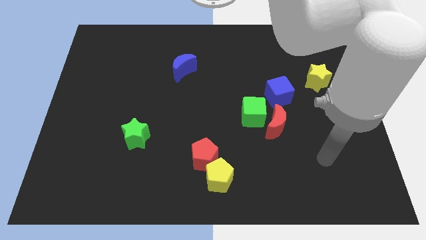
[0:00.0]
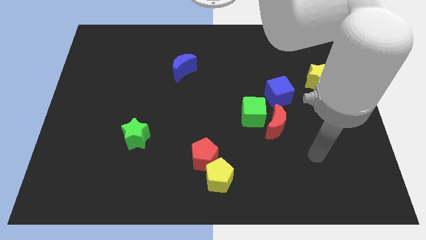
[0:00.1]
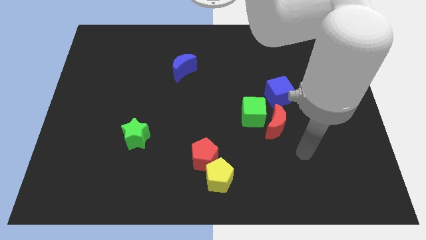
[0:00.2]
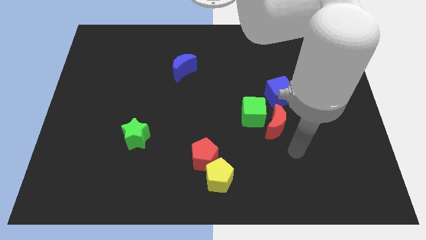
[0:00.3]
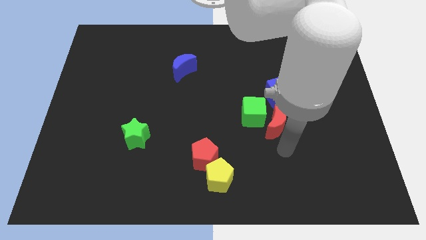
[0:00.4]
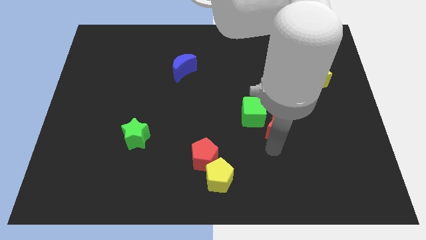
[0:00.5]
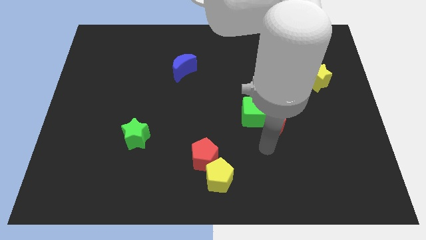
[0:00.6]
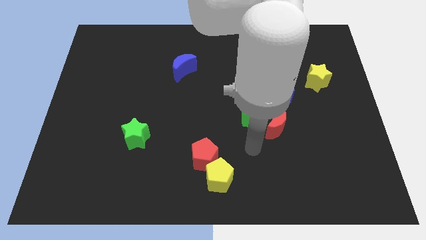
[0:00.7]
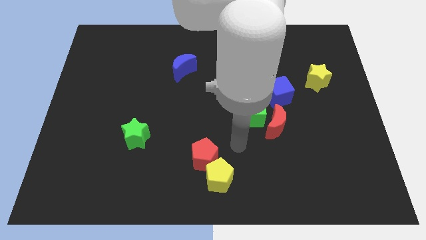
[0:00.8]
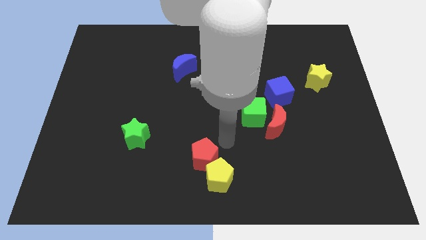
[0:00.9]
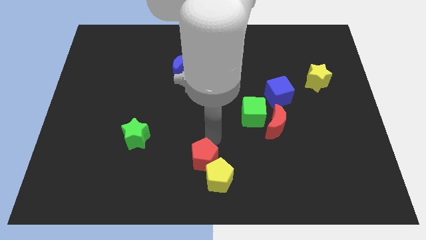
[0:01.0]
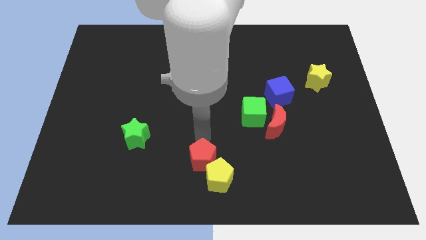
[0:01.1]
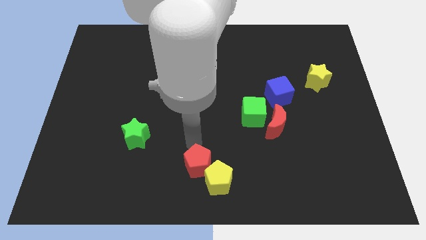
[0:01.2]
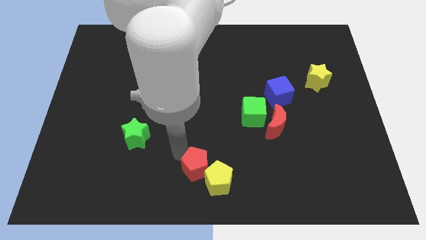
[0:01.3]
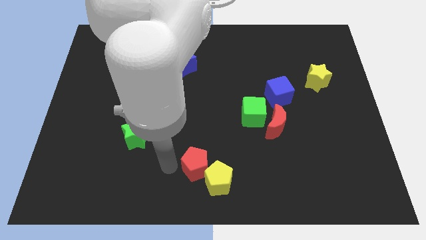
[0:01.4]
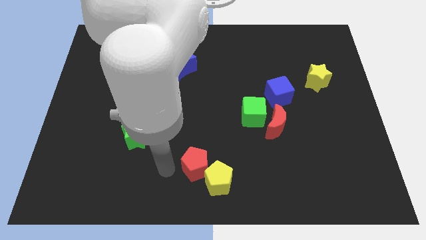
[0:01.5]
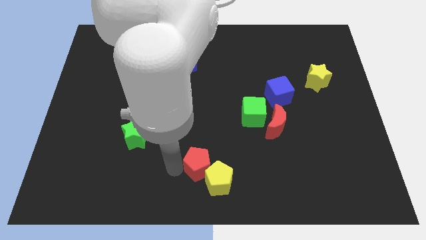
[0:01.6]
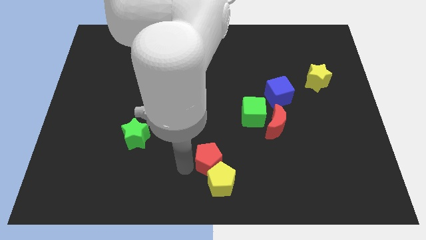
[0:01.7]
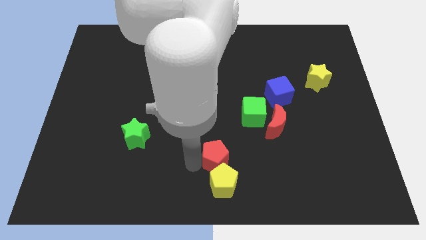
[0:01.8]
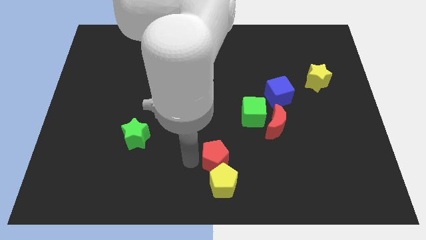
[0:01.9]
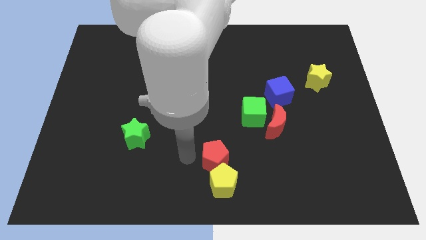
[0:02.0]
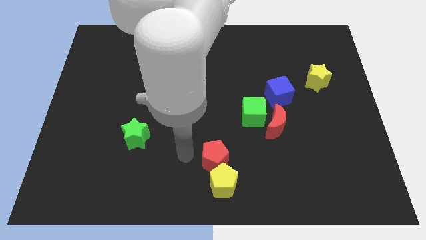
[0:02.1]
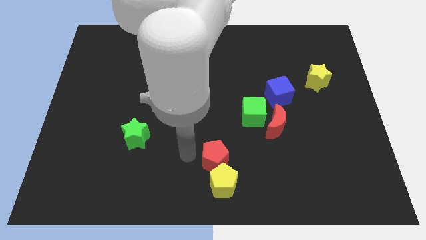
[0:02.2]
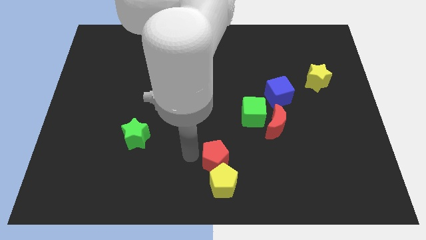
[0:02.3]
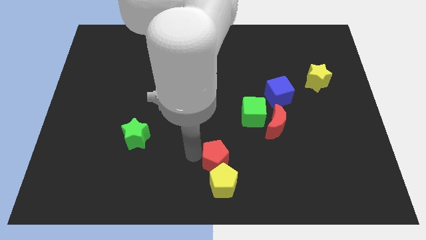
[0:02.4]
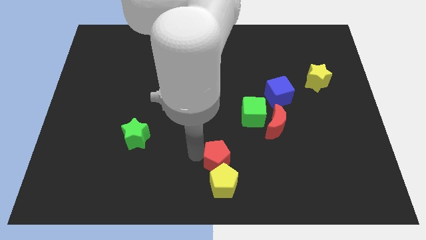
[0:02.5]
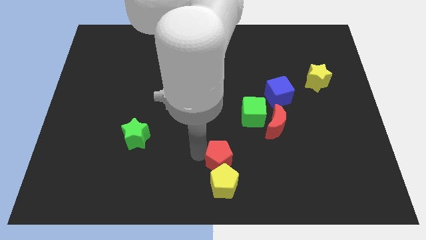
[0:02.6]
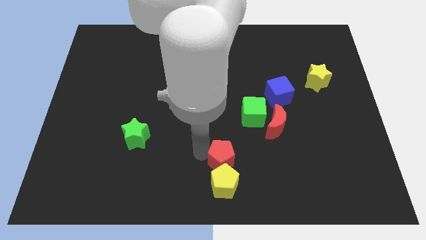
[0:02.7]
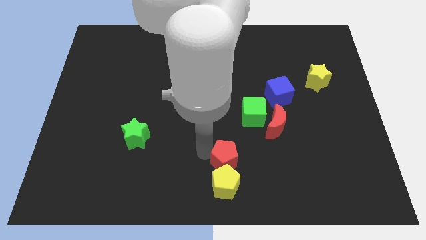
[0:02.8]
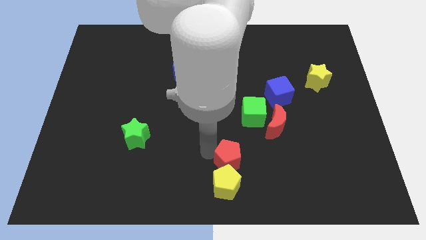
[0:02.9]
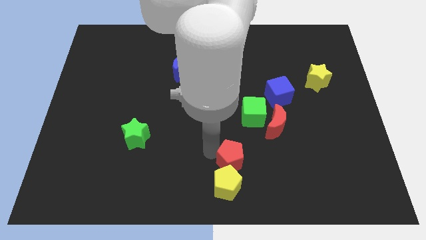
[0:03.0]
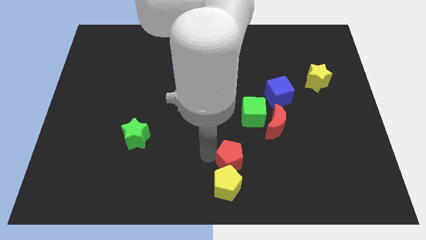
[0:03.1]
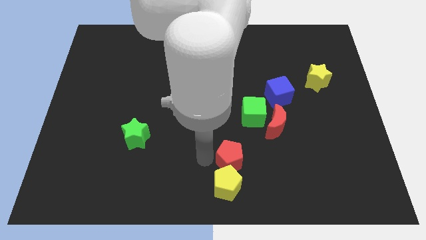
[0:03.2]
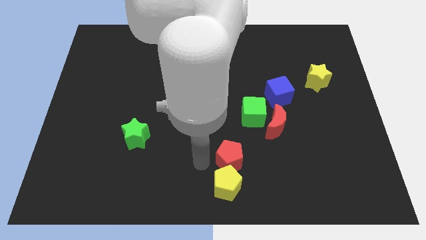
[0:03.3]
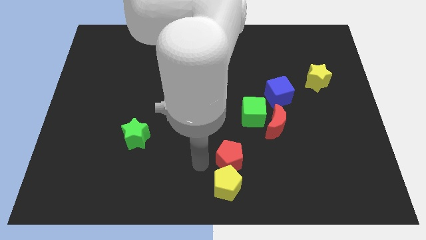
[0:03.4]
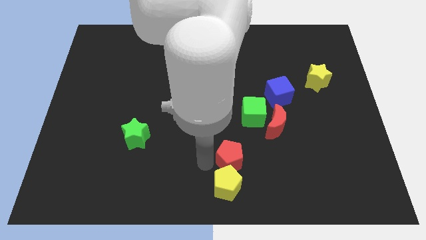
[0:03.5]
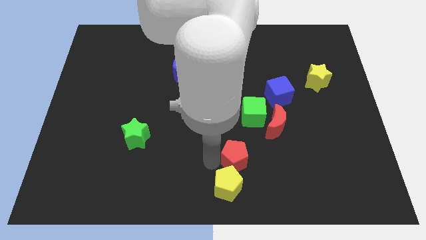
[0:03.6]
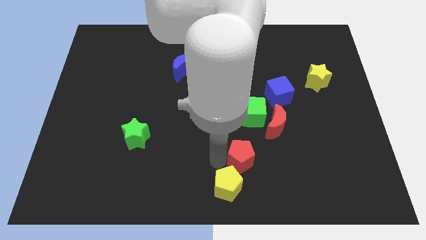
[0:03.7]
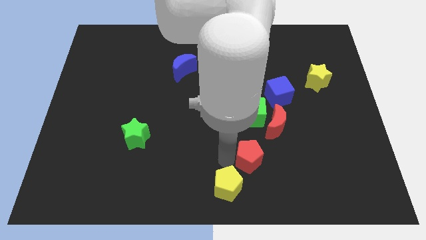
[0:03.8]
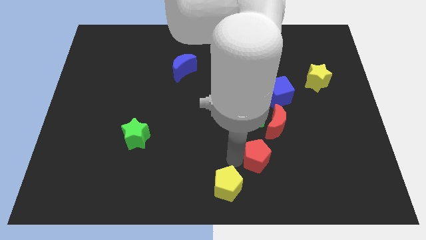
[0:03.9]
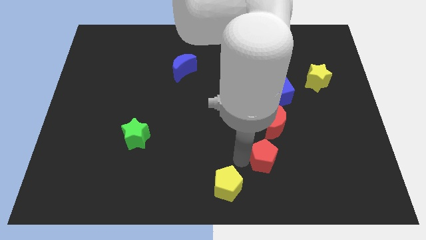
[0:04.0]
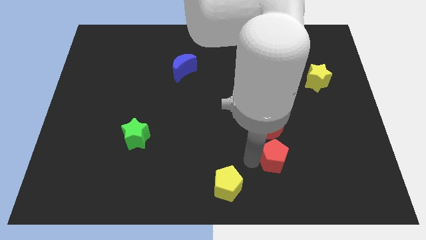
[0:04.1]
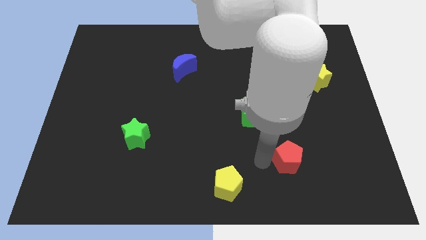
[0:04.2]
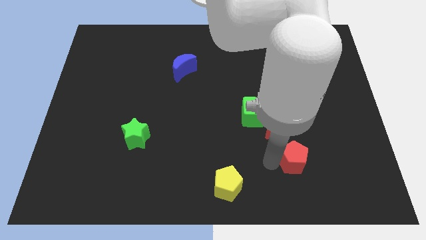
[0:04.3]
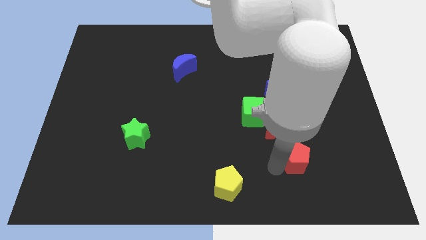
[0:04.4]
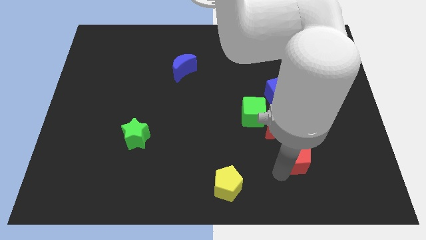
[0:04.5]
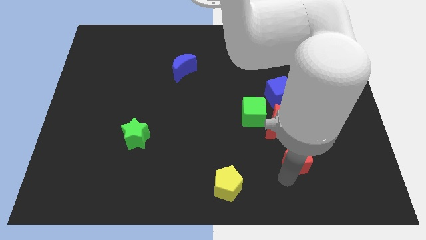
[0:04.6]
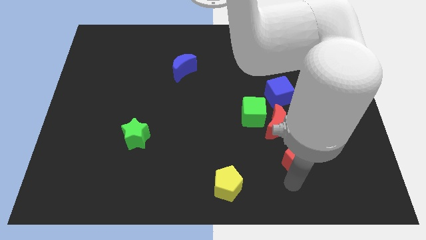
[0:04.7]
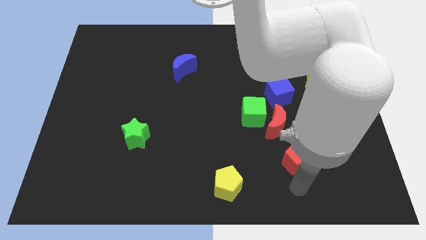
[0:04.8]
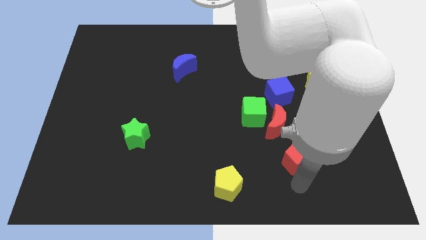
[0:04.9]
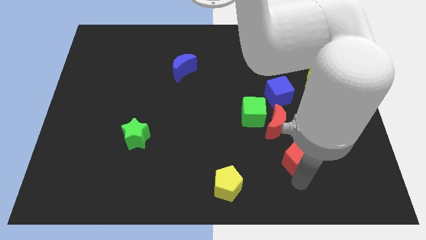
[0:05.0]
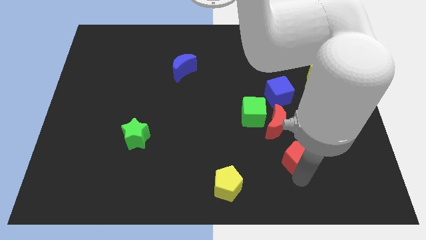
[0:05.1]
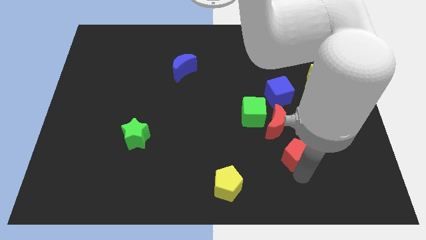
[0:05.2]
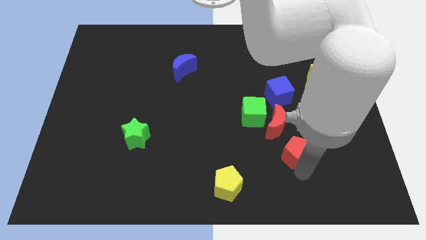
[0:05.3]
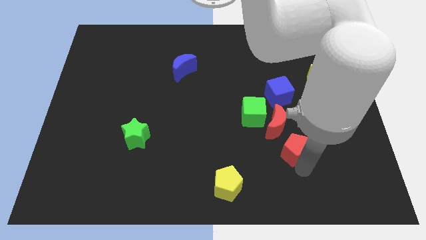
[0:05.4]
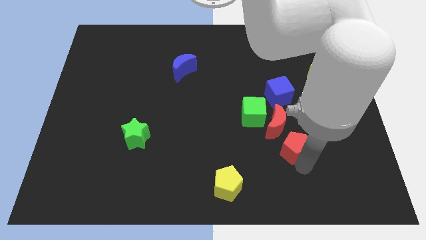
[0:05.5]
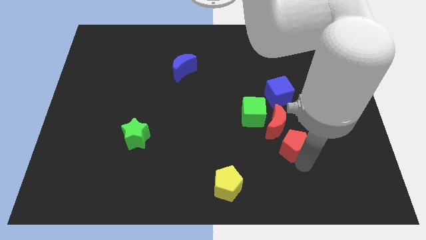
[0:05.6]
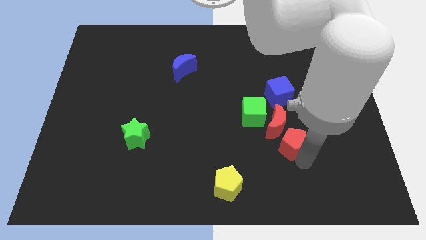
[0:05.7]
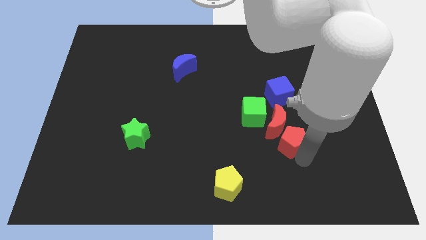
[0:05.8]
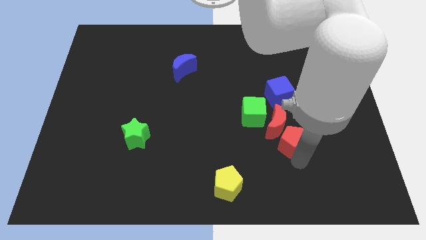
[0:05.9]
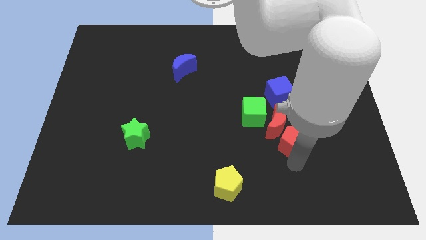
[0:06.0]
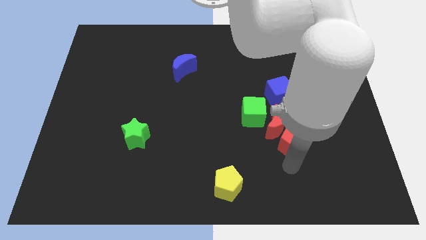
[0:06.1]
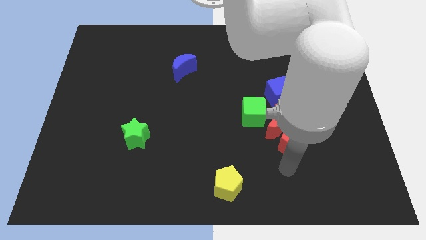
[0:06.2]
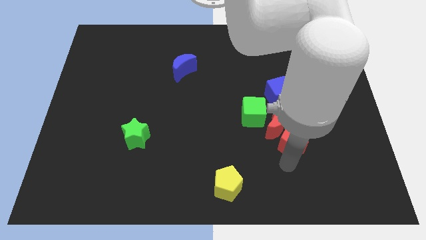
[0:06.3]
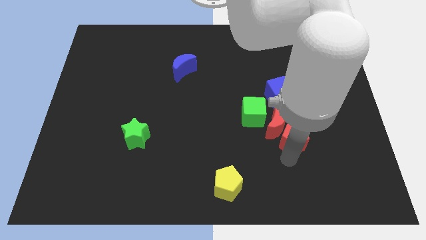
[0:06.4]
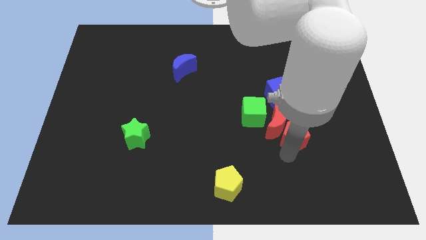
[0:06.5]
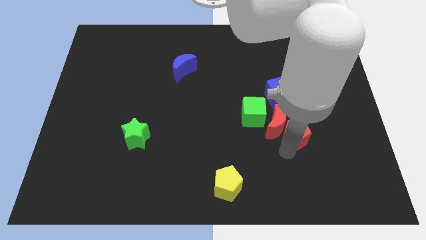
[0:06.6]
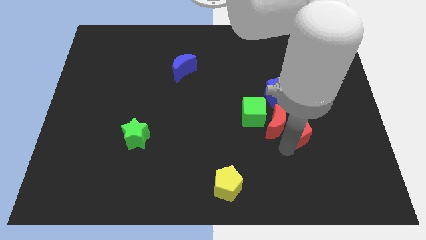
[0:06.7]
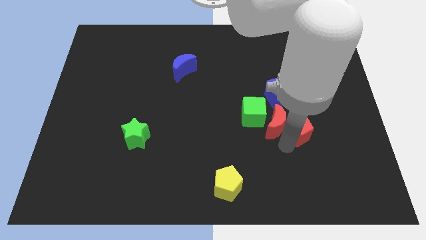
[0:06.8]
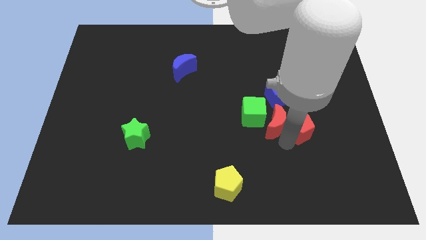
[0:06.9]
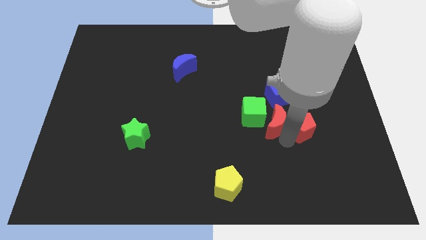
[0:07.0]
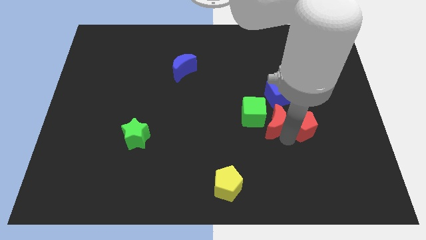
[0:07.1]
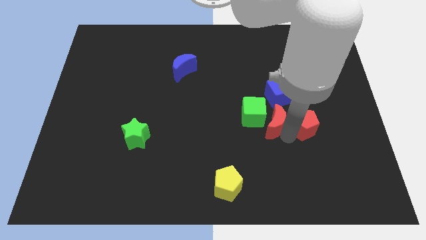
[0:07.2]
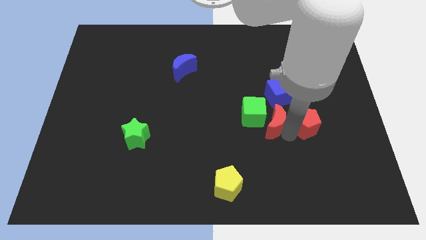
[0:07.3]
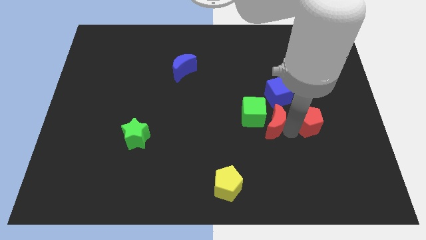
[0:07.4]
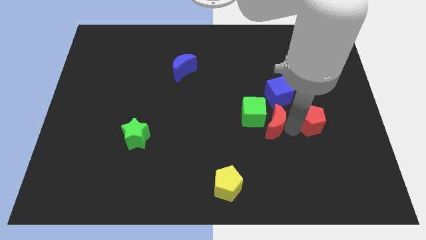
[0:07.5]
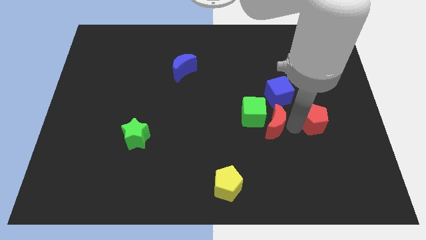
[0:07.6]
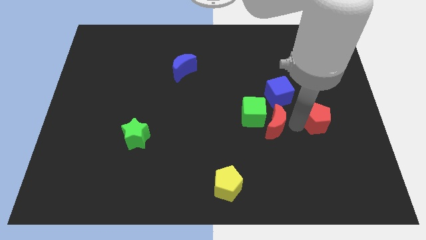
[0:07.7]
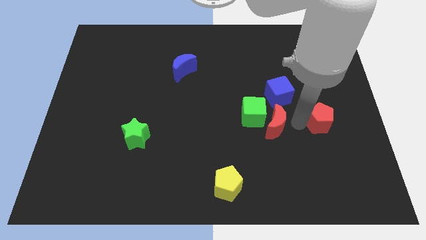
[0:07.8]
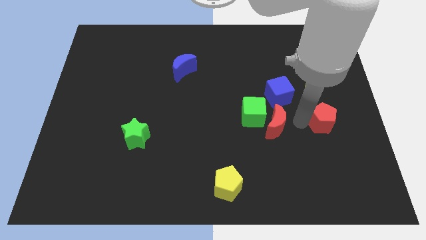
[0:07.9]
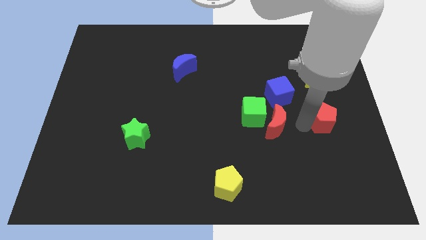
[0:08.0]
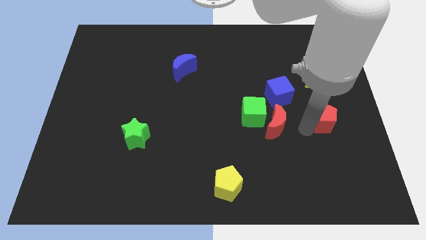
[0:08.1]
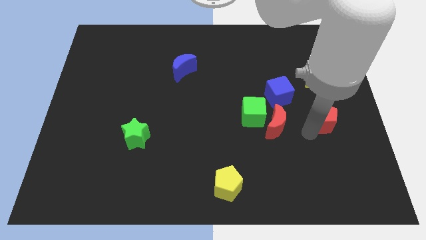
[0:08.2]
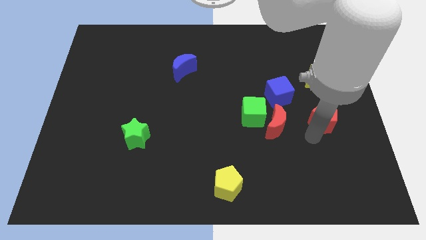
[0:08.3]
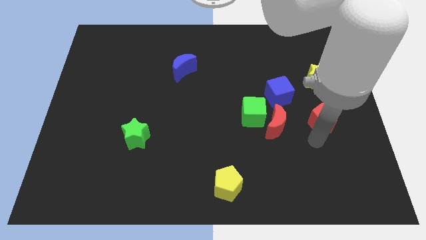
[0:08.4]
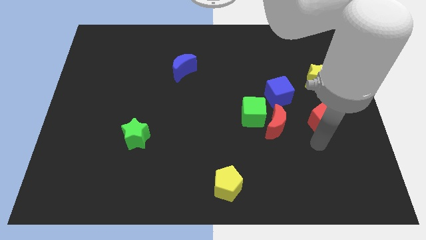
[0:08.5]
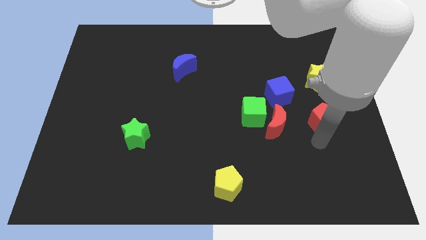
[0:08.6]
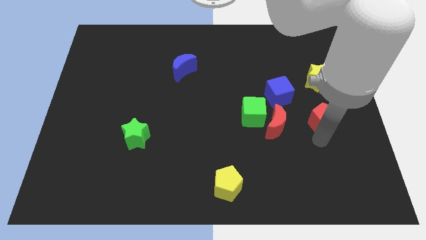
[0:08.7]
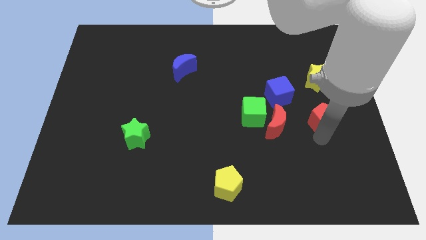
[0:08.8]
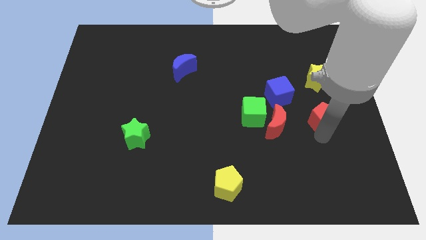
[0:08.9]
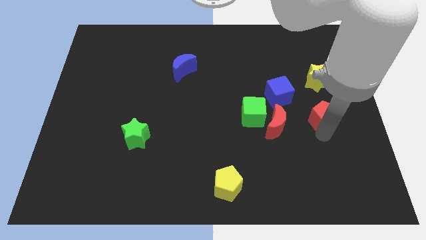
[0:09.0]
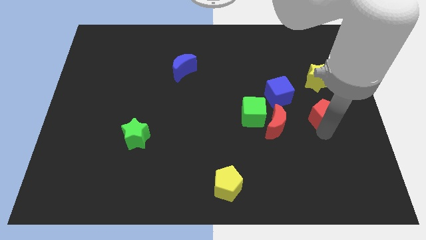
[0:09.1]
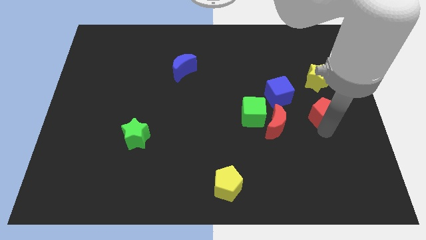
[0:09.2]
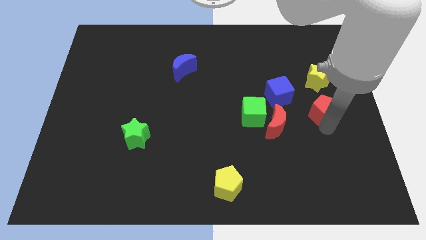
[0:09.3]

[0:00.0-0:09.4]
move the red pentagon to the center right
